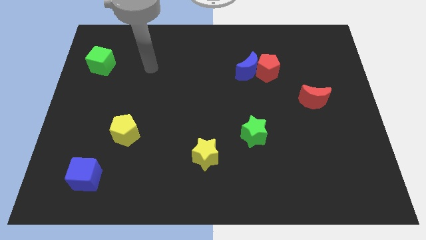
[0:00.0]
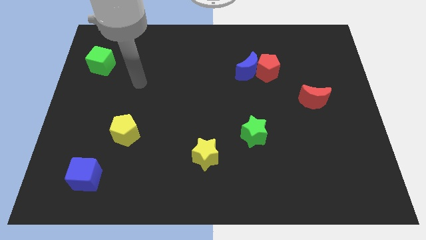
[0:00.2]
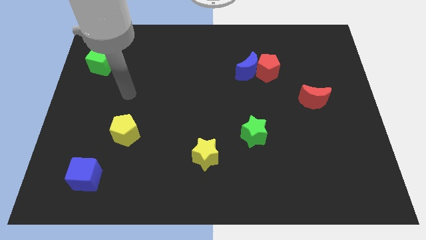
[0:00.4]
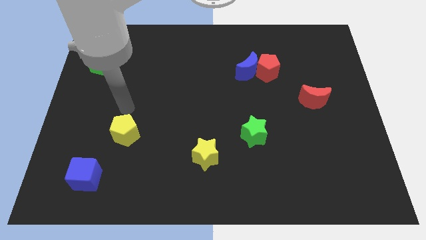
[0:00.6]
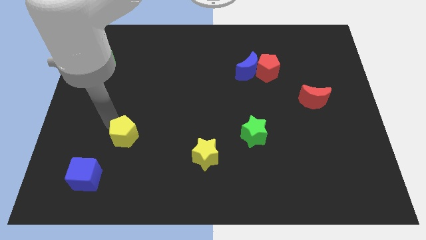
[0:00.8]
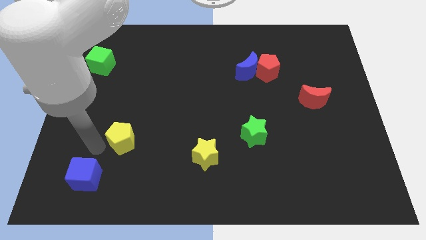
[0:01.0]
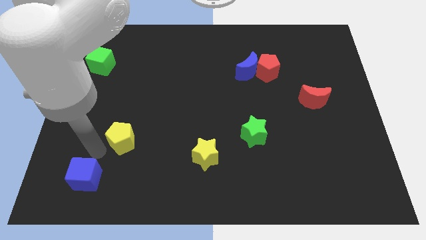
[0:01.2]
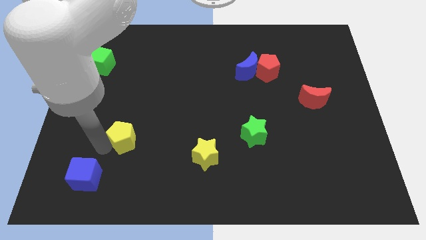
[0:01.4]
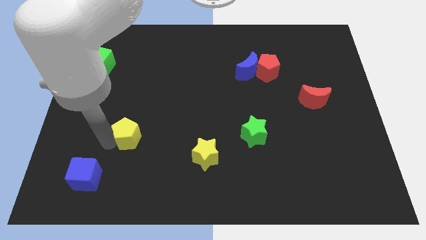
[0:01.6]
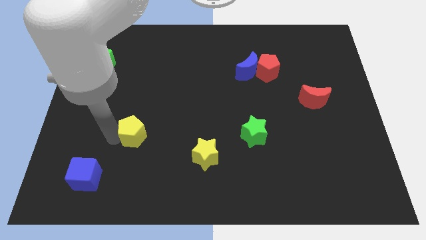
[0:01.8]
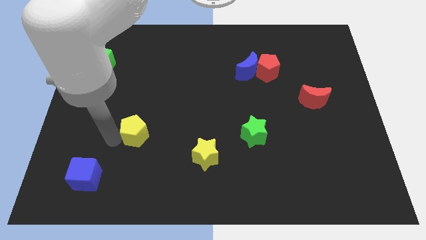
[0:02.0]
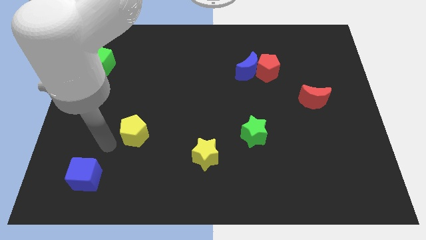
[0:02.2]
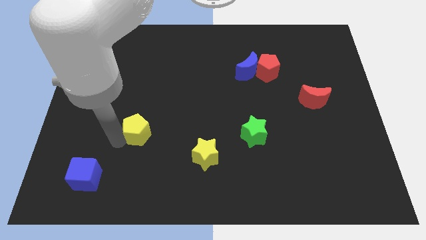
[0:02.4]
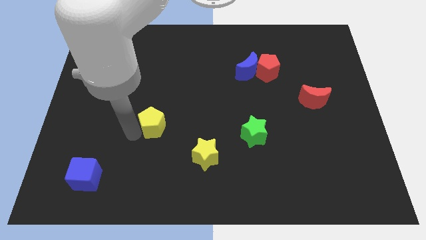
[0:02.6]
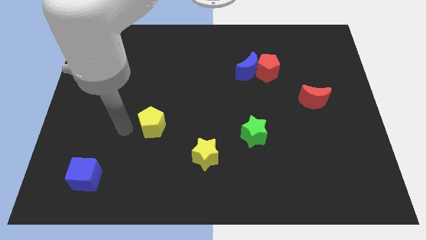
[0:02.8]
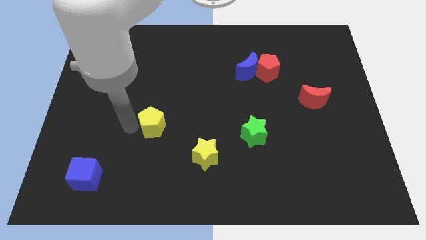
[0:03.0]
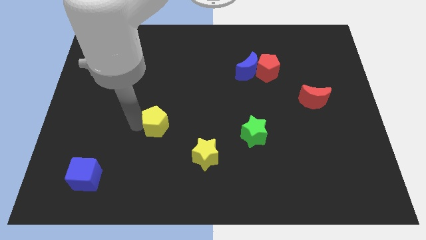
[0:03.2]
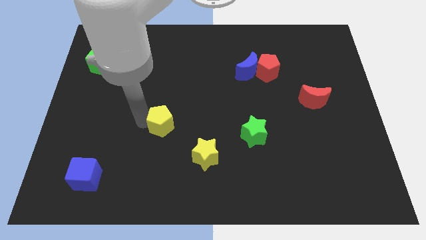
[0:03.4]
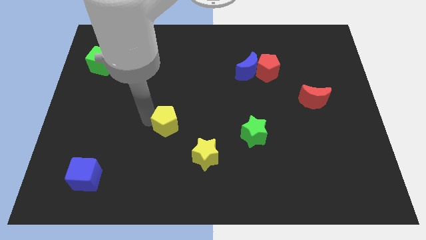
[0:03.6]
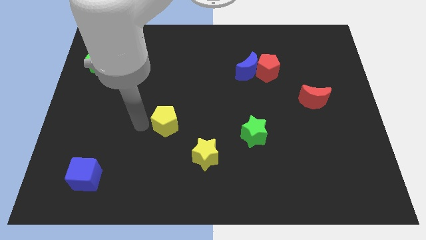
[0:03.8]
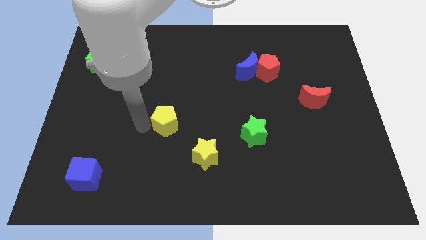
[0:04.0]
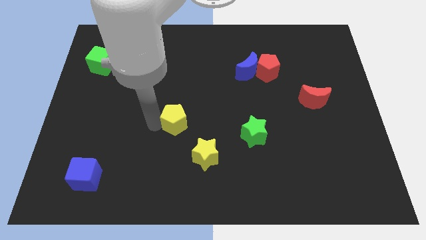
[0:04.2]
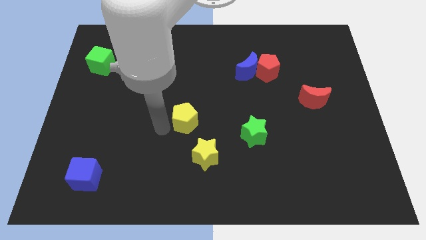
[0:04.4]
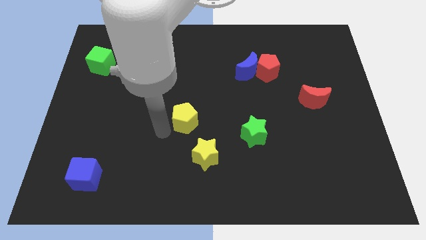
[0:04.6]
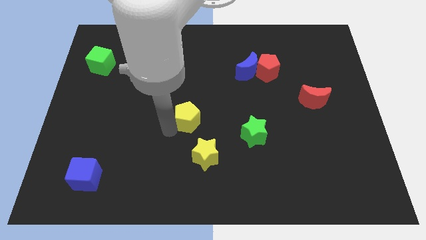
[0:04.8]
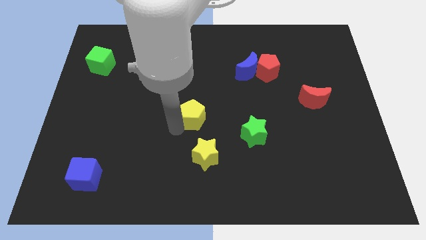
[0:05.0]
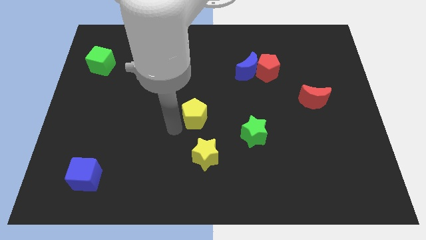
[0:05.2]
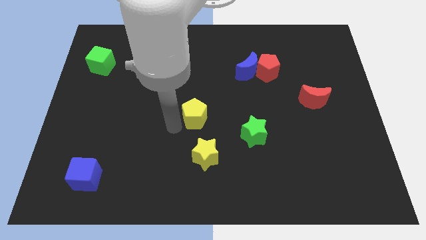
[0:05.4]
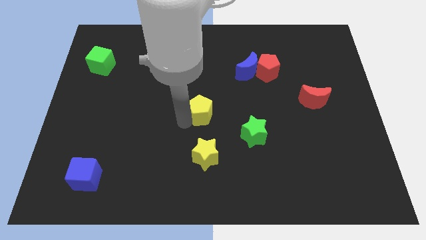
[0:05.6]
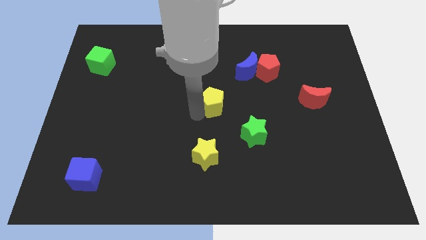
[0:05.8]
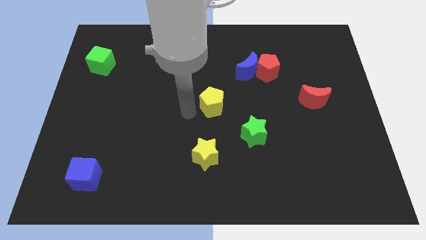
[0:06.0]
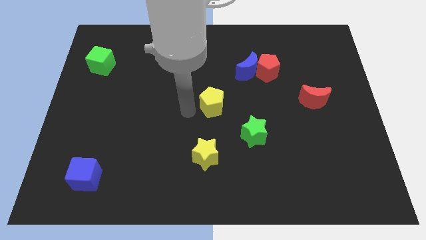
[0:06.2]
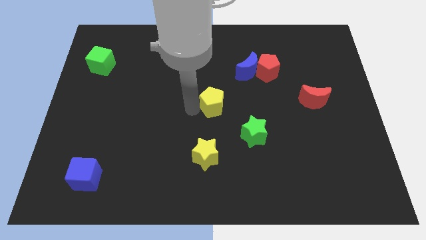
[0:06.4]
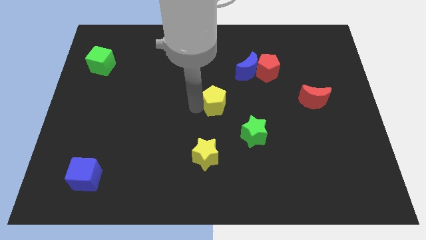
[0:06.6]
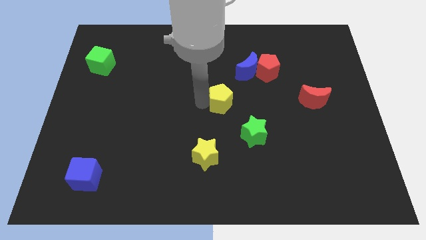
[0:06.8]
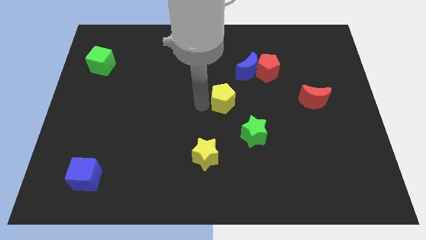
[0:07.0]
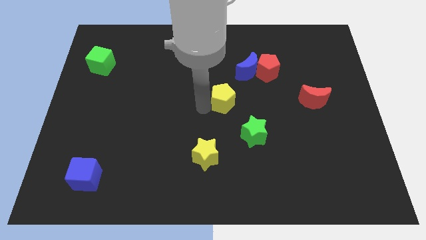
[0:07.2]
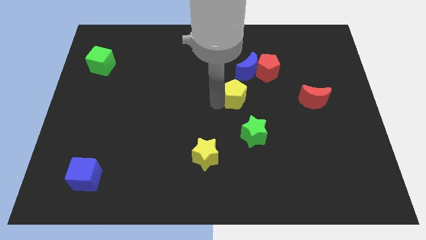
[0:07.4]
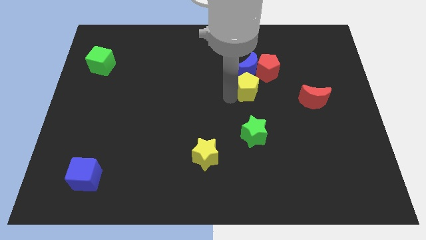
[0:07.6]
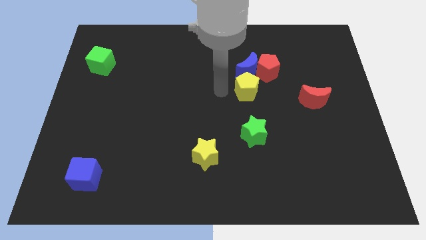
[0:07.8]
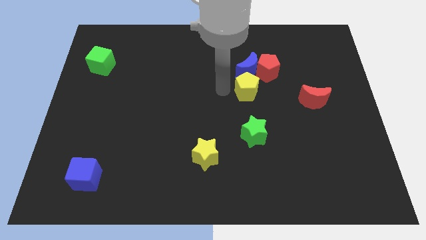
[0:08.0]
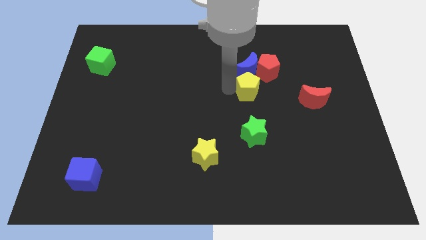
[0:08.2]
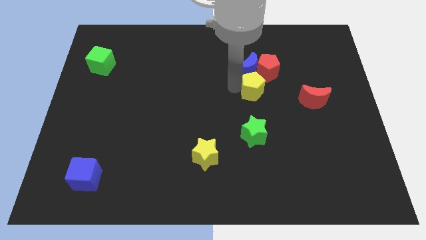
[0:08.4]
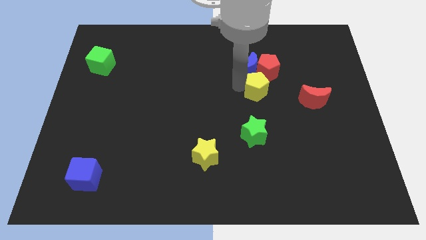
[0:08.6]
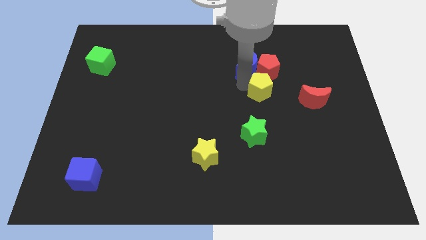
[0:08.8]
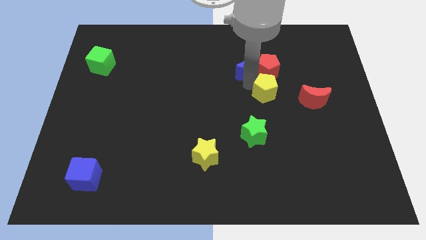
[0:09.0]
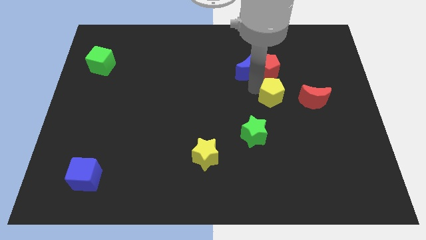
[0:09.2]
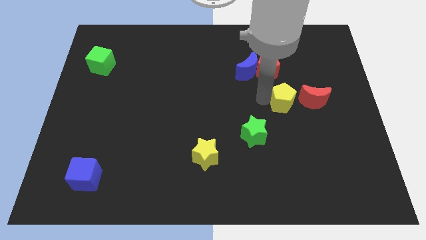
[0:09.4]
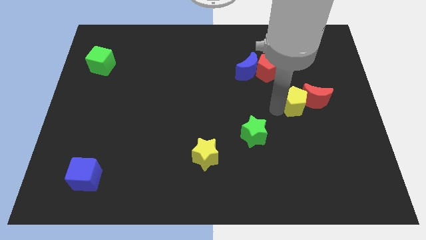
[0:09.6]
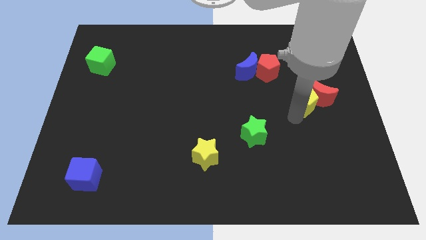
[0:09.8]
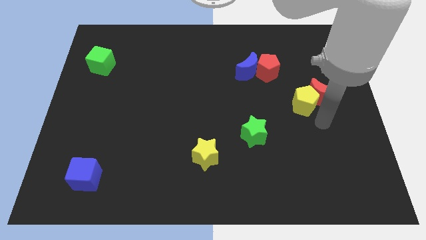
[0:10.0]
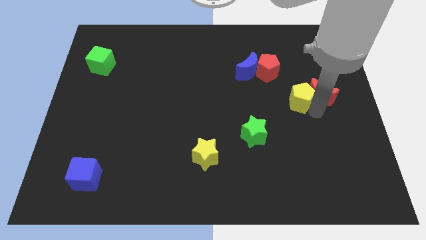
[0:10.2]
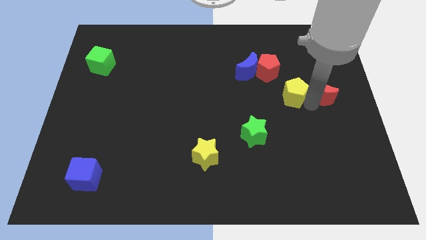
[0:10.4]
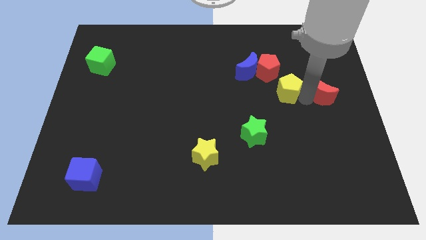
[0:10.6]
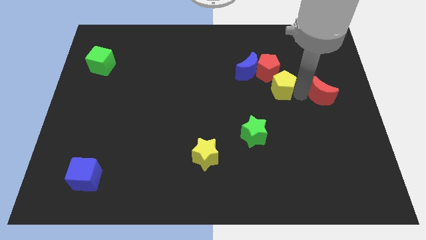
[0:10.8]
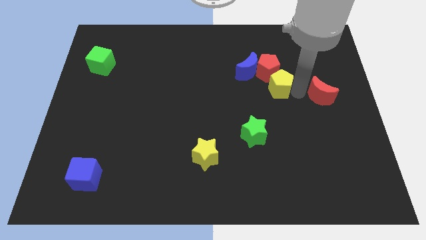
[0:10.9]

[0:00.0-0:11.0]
slide the yellow pentagon next to the red pentagon

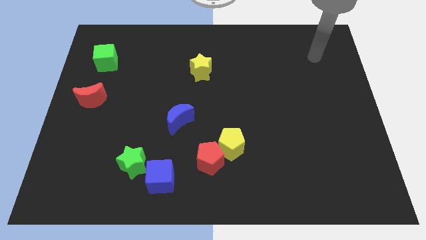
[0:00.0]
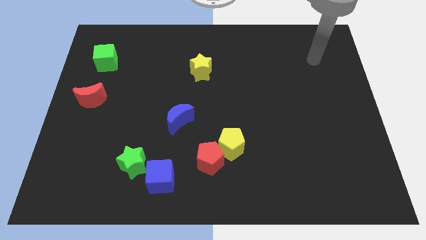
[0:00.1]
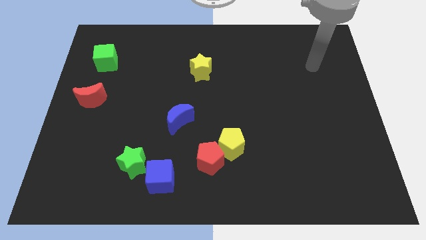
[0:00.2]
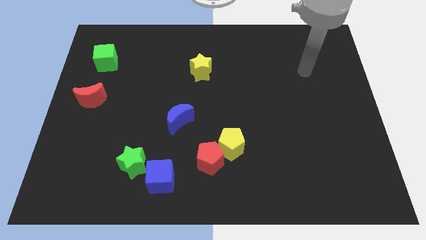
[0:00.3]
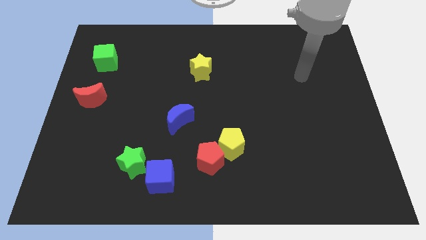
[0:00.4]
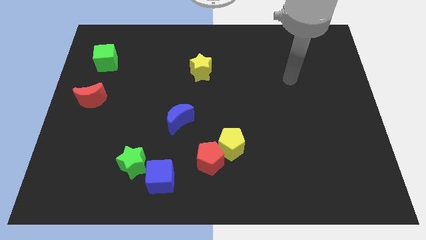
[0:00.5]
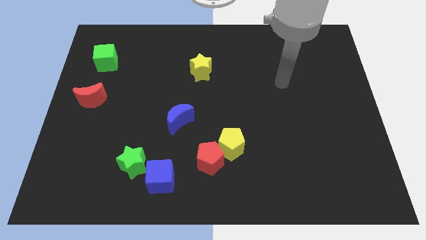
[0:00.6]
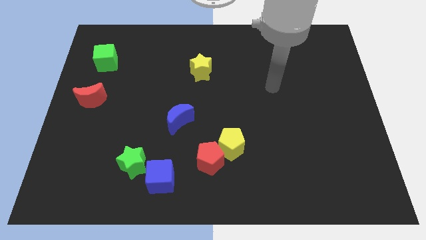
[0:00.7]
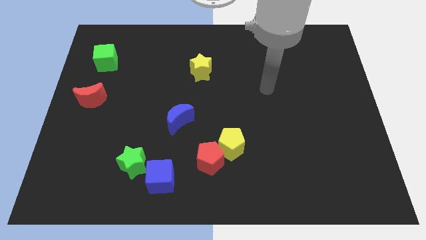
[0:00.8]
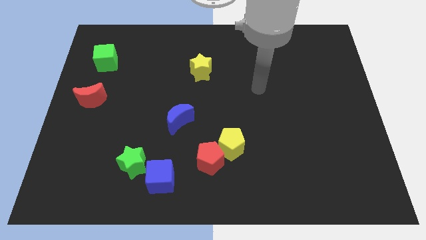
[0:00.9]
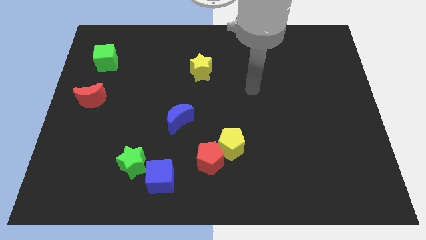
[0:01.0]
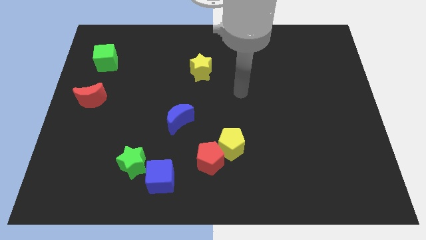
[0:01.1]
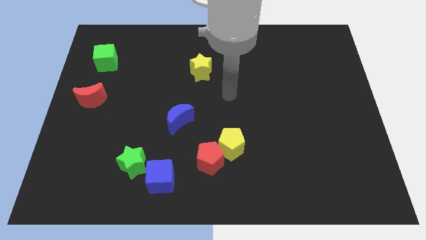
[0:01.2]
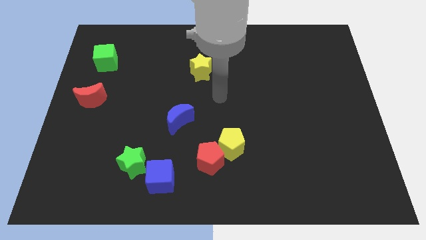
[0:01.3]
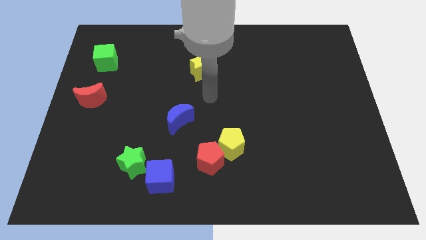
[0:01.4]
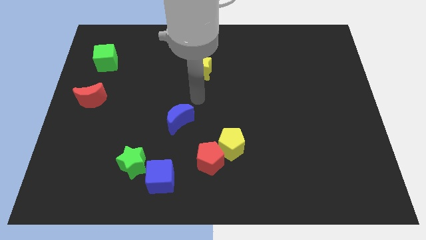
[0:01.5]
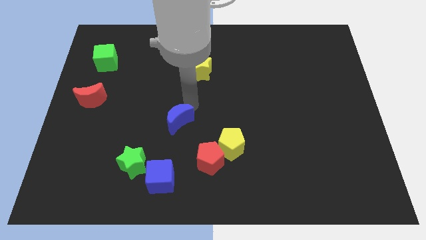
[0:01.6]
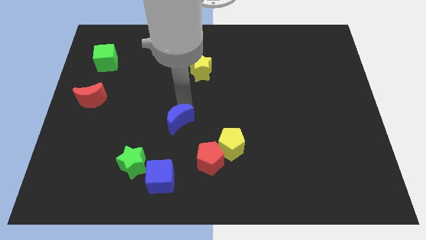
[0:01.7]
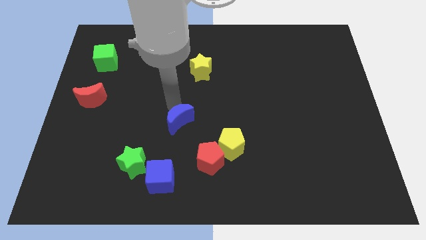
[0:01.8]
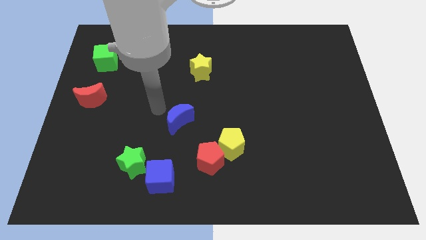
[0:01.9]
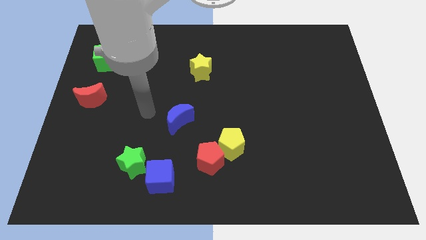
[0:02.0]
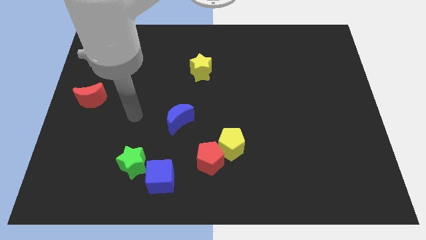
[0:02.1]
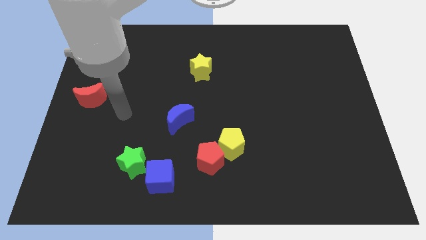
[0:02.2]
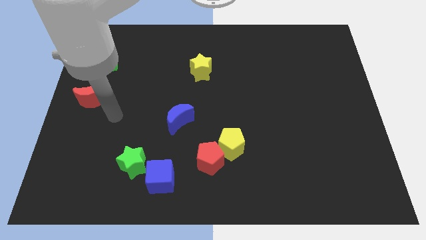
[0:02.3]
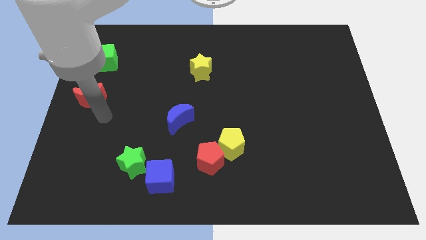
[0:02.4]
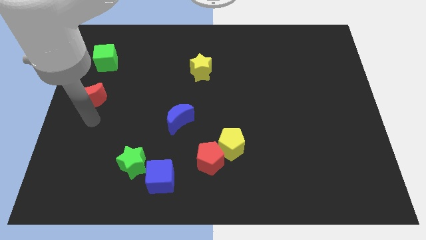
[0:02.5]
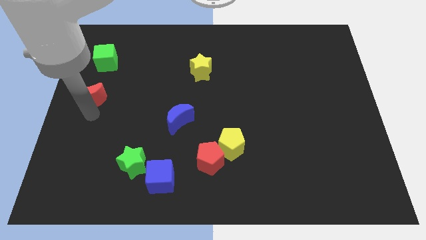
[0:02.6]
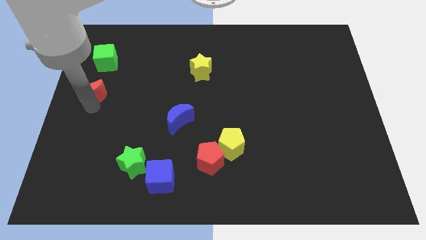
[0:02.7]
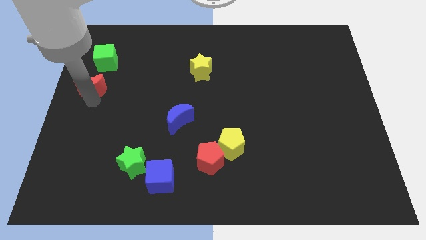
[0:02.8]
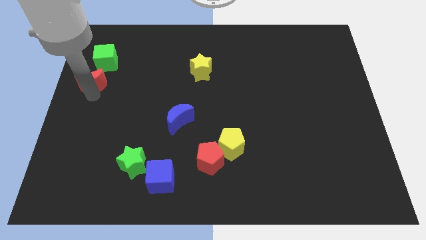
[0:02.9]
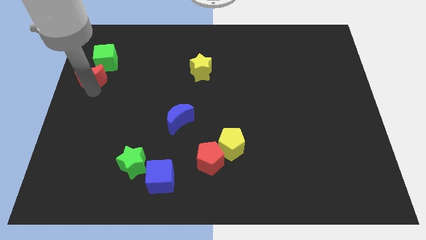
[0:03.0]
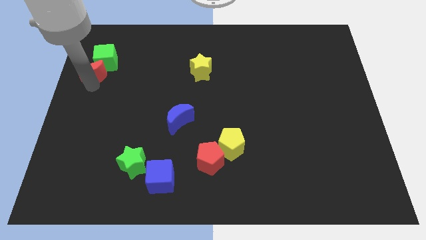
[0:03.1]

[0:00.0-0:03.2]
push the red moon close to the green cube
